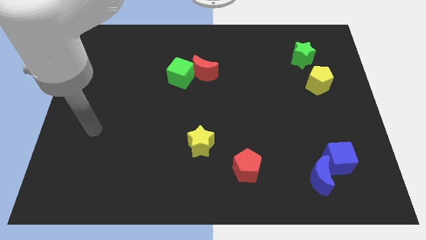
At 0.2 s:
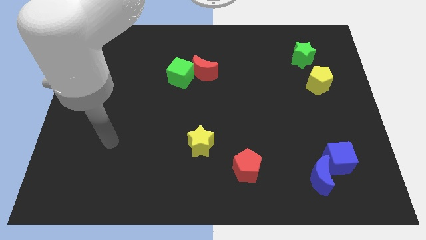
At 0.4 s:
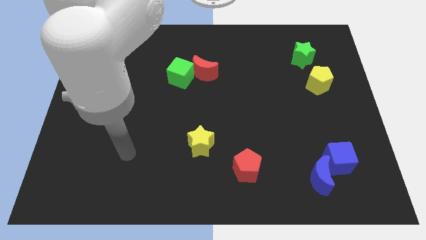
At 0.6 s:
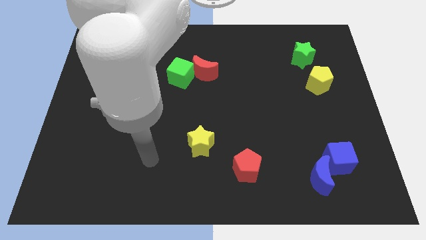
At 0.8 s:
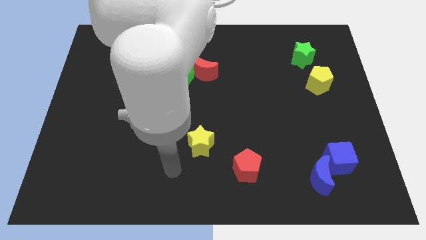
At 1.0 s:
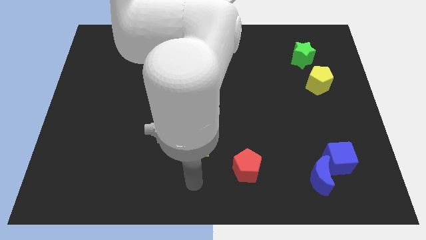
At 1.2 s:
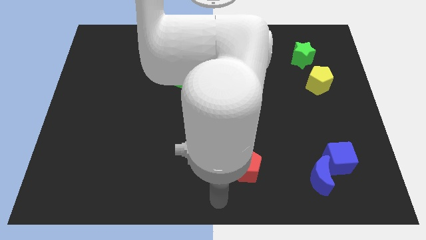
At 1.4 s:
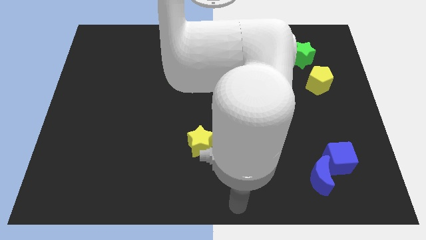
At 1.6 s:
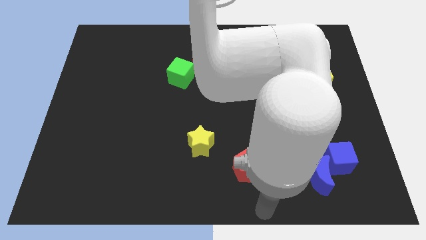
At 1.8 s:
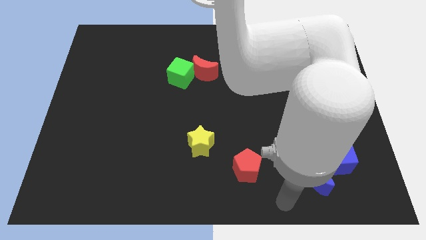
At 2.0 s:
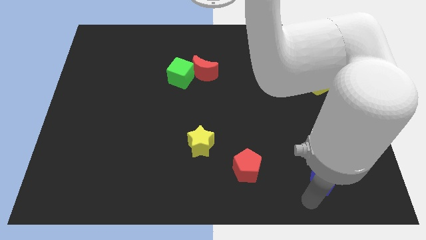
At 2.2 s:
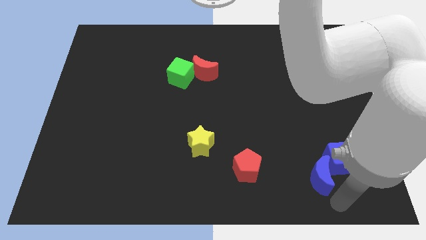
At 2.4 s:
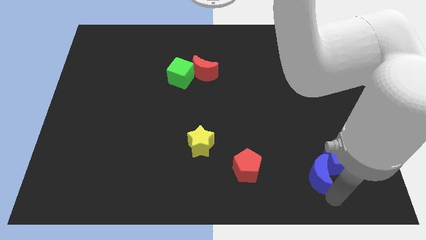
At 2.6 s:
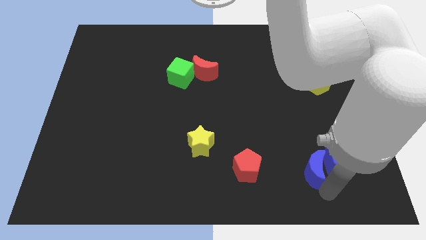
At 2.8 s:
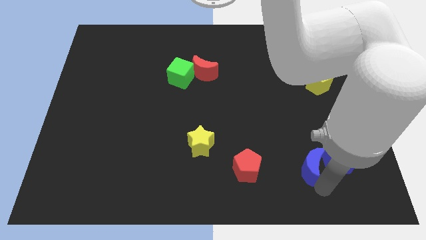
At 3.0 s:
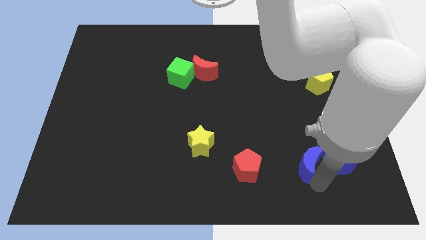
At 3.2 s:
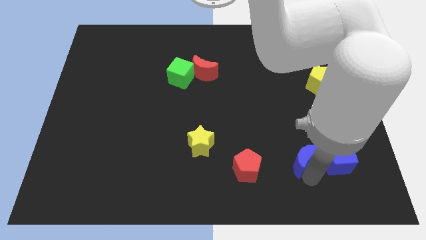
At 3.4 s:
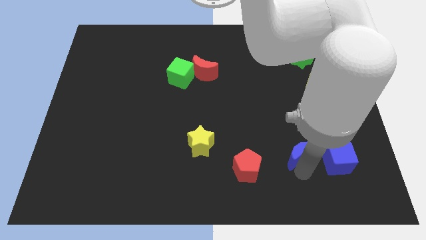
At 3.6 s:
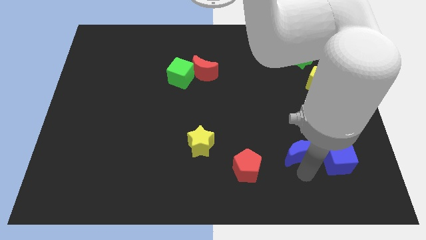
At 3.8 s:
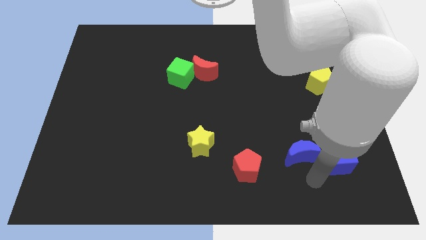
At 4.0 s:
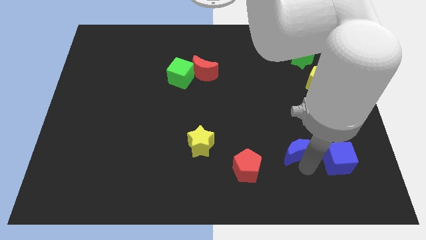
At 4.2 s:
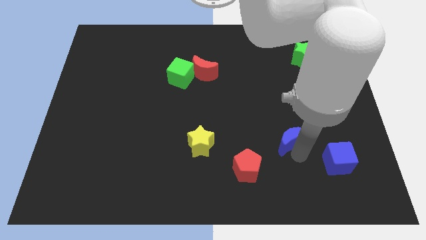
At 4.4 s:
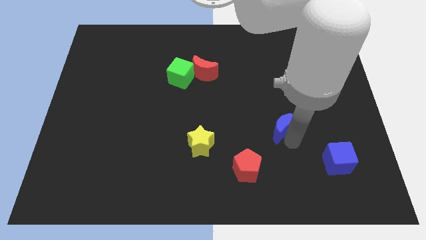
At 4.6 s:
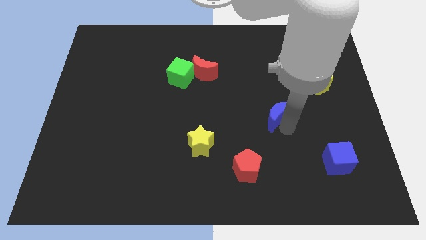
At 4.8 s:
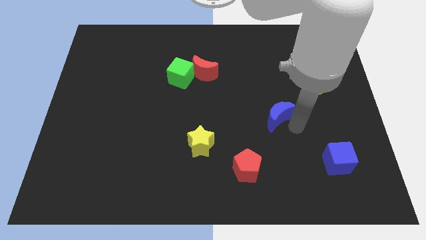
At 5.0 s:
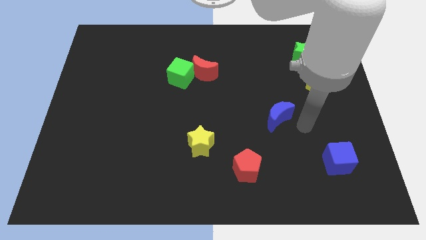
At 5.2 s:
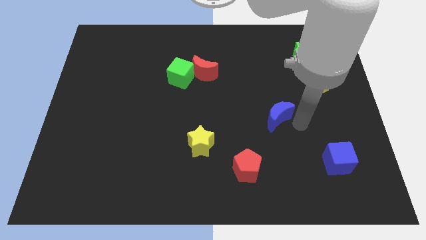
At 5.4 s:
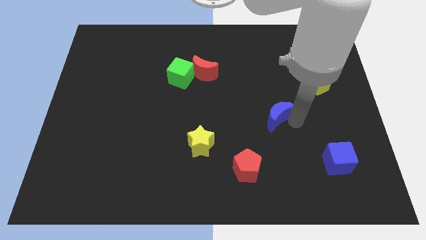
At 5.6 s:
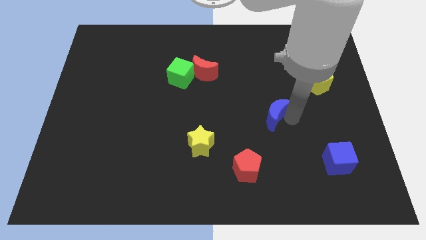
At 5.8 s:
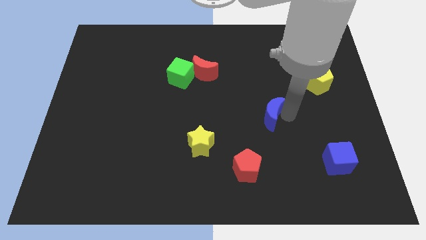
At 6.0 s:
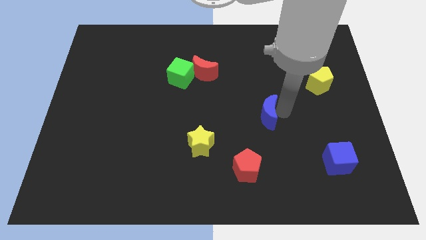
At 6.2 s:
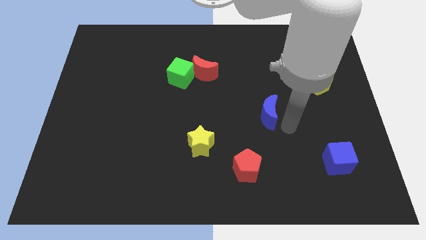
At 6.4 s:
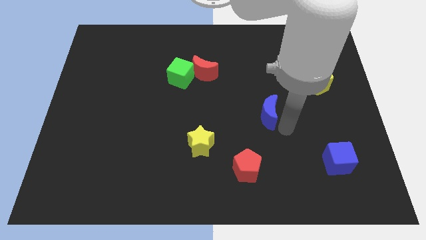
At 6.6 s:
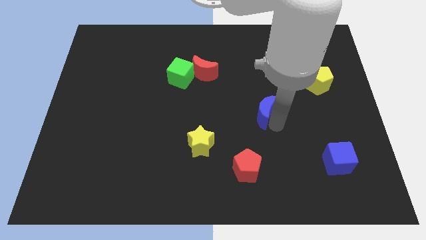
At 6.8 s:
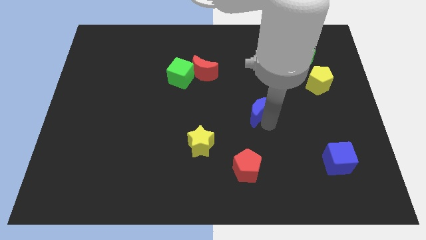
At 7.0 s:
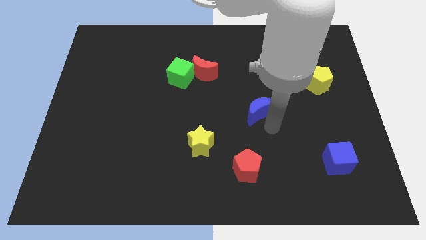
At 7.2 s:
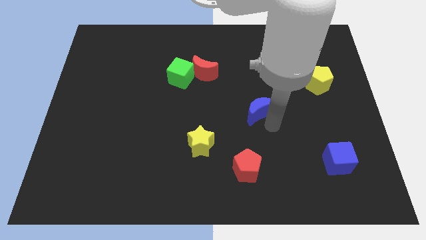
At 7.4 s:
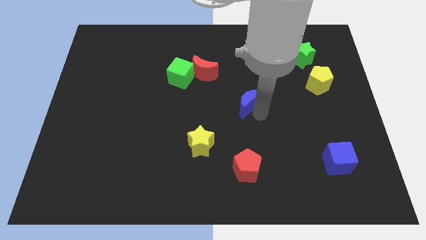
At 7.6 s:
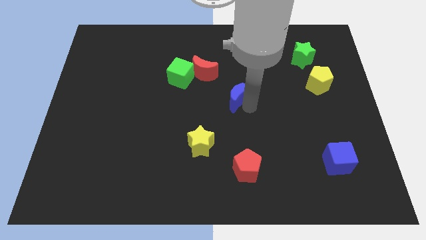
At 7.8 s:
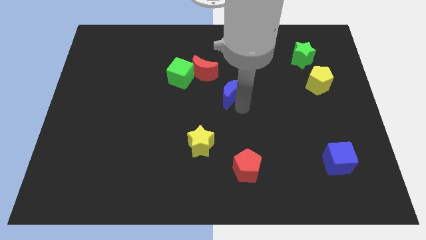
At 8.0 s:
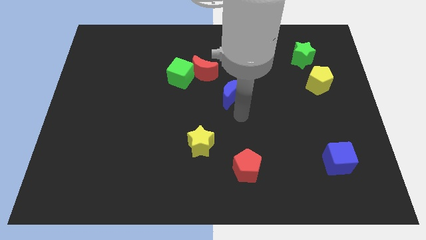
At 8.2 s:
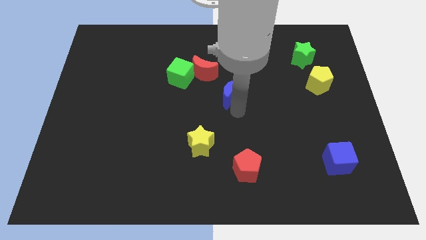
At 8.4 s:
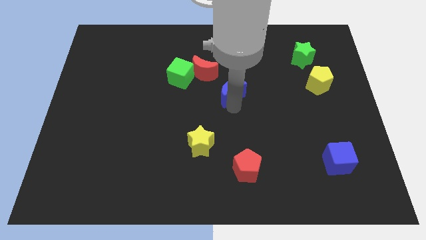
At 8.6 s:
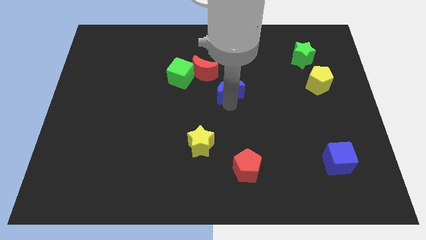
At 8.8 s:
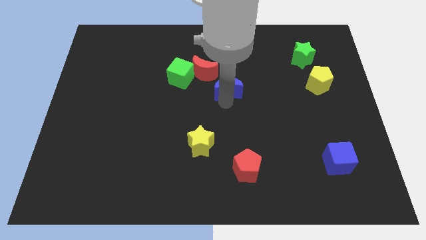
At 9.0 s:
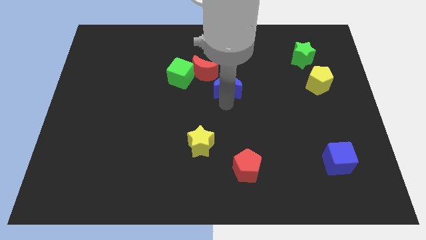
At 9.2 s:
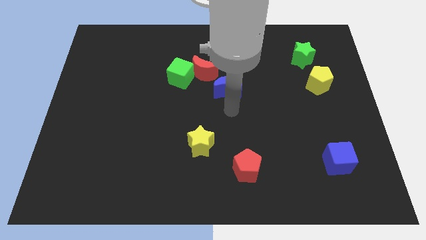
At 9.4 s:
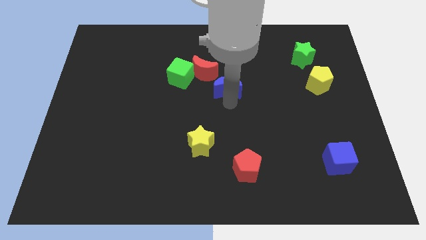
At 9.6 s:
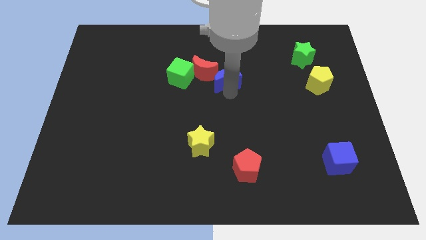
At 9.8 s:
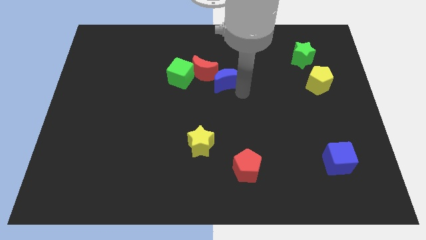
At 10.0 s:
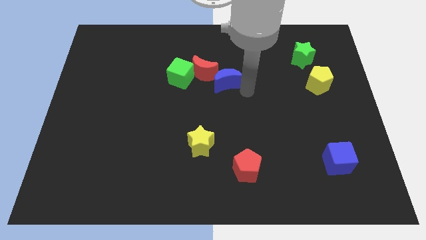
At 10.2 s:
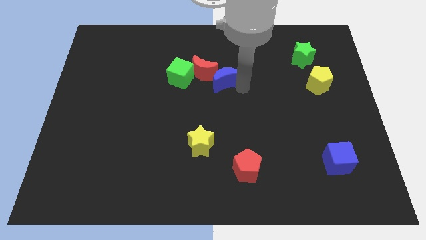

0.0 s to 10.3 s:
slide the blue moon close to the red moon

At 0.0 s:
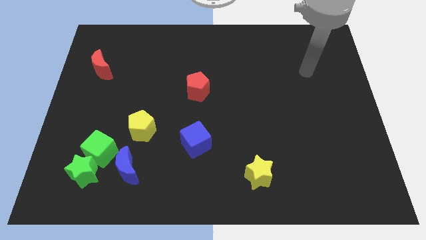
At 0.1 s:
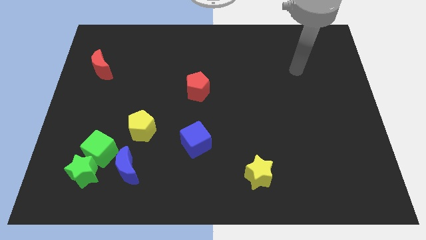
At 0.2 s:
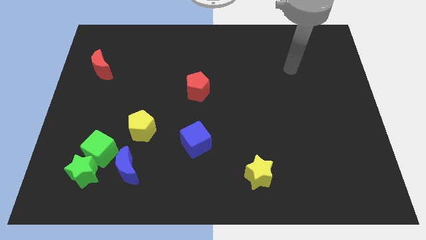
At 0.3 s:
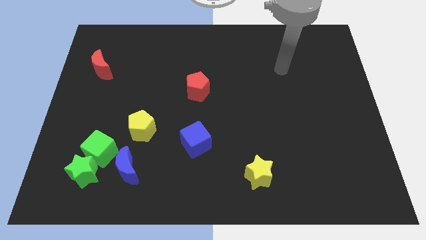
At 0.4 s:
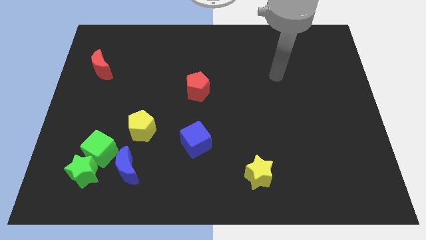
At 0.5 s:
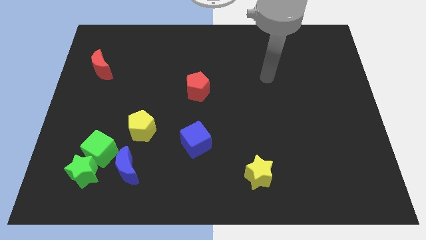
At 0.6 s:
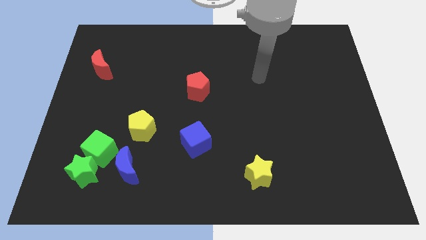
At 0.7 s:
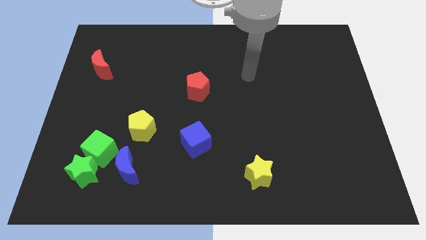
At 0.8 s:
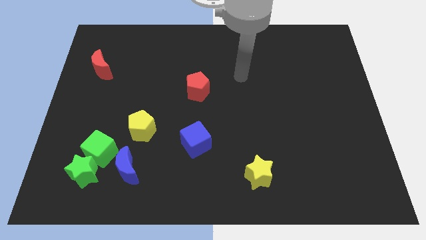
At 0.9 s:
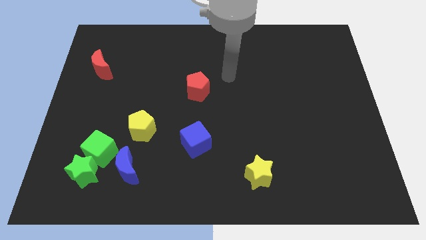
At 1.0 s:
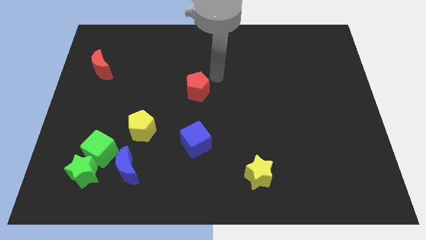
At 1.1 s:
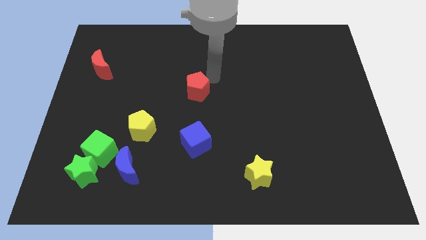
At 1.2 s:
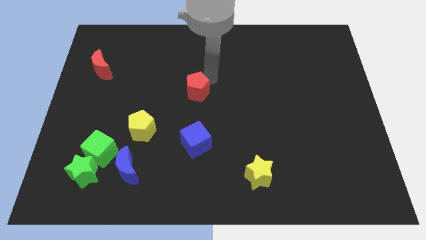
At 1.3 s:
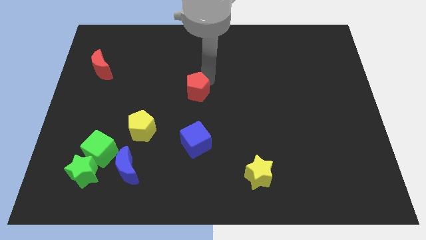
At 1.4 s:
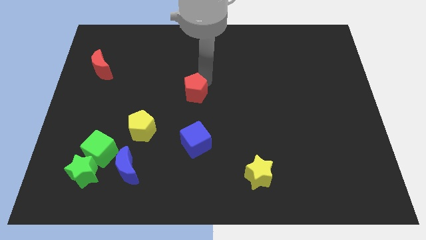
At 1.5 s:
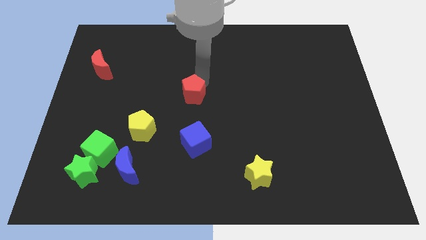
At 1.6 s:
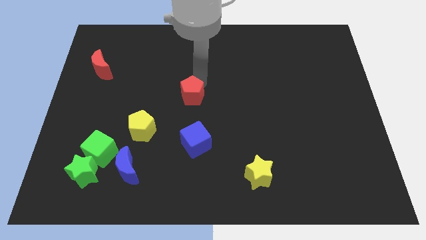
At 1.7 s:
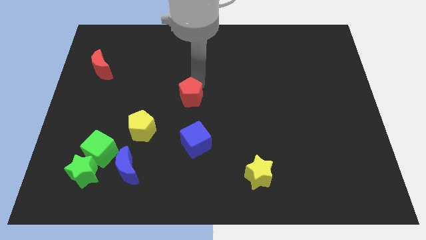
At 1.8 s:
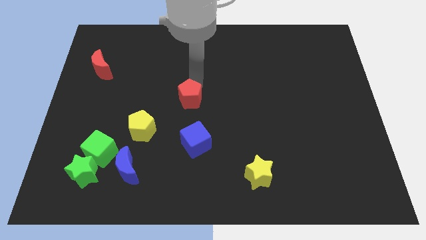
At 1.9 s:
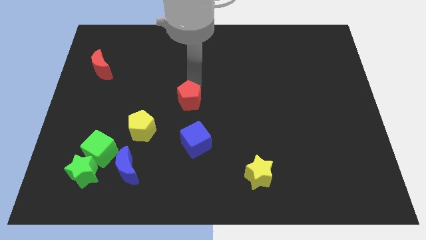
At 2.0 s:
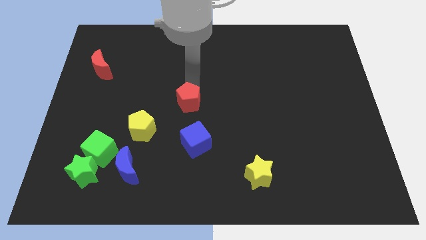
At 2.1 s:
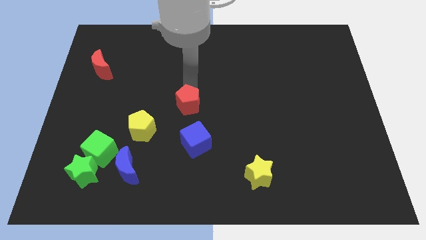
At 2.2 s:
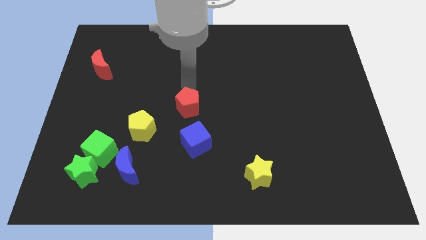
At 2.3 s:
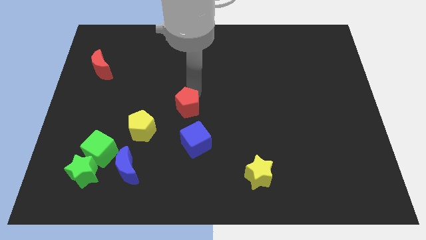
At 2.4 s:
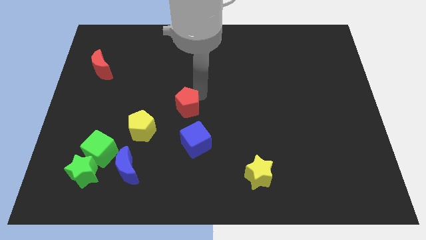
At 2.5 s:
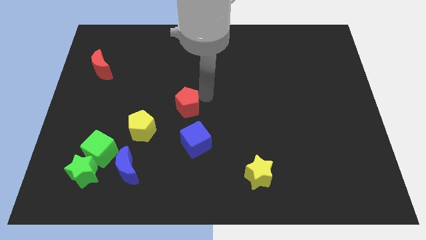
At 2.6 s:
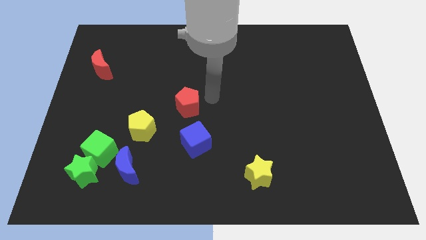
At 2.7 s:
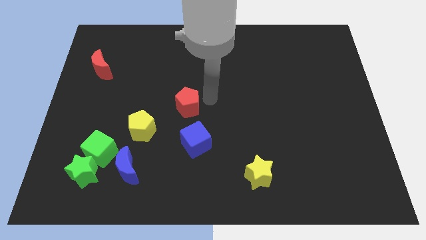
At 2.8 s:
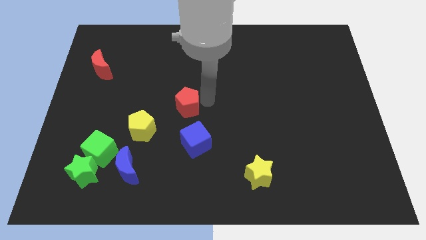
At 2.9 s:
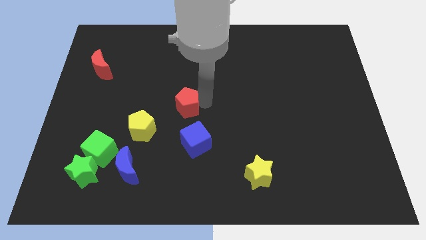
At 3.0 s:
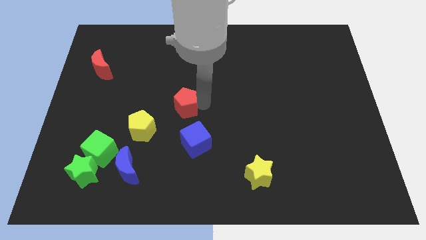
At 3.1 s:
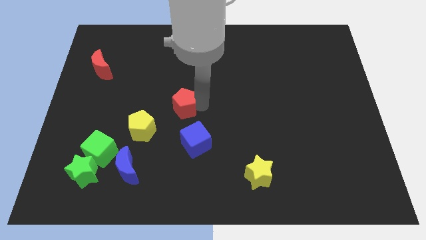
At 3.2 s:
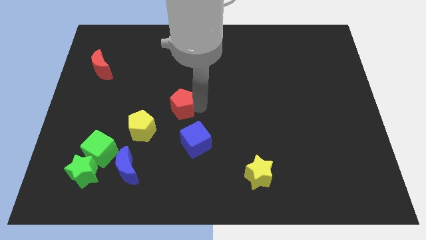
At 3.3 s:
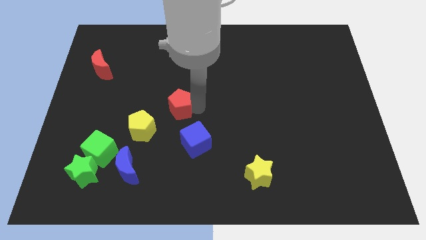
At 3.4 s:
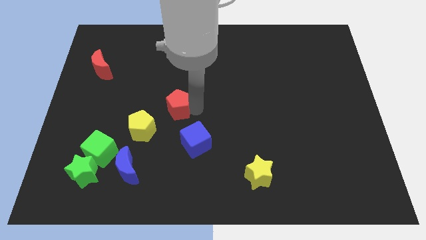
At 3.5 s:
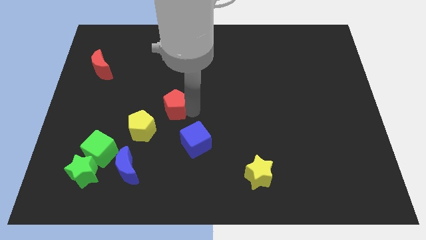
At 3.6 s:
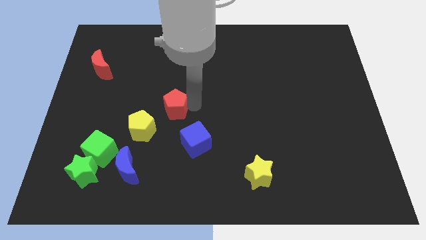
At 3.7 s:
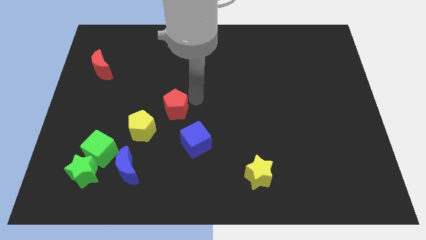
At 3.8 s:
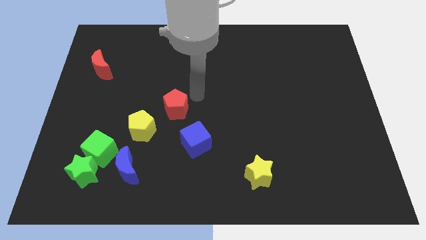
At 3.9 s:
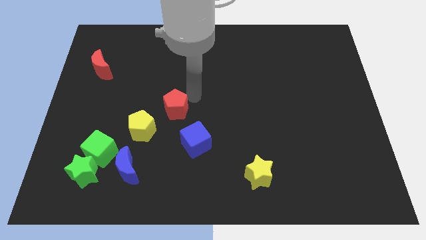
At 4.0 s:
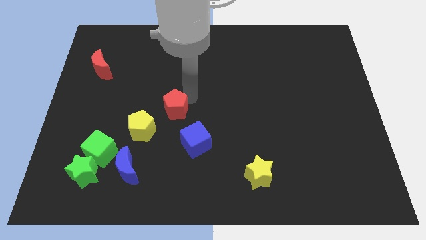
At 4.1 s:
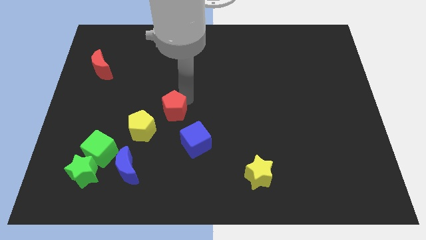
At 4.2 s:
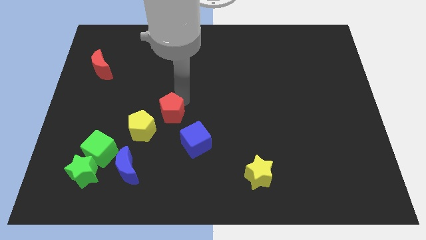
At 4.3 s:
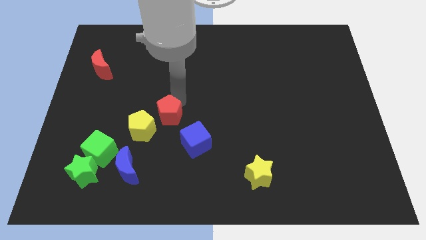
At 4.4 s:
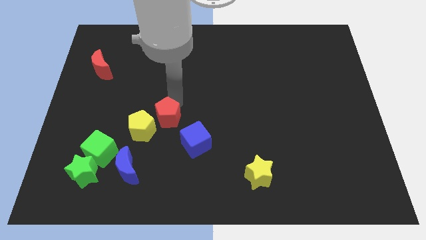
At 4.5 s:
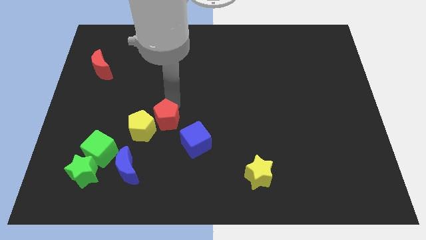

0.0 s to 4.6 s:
move the red pentagon towards the yellow pentagon
